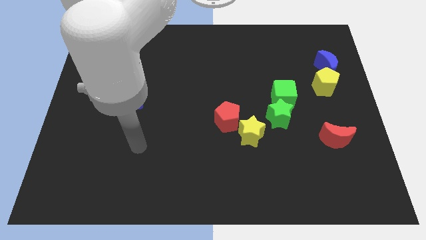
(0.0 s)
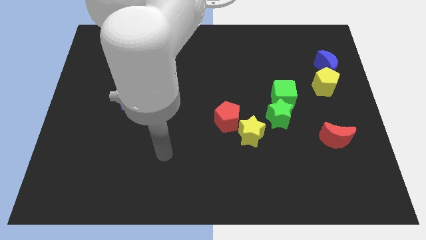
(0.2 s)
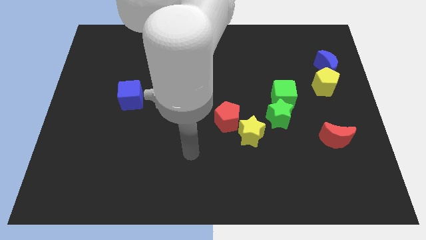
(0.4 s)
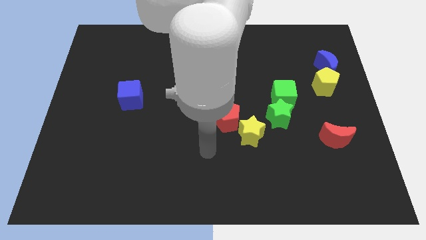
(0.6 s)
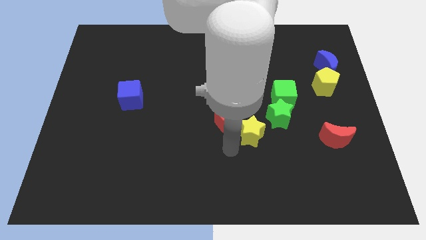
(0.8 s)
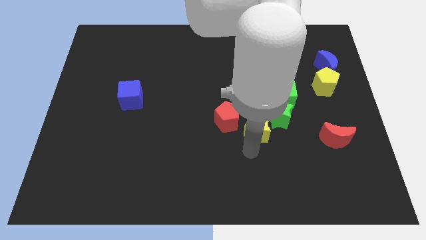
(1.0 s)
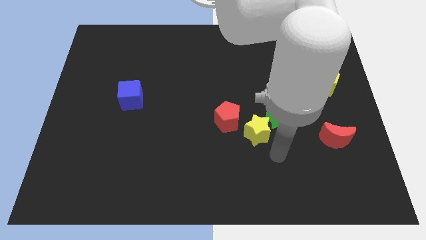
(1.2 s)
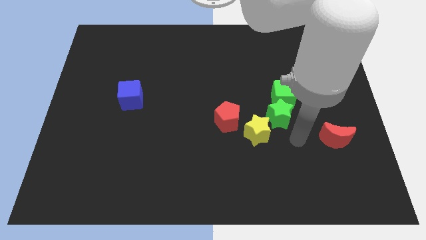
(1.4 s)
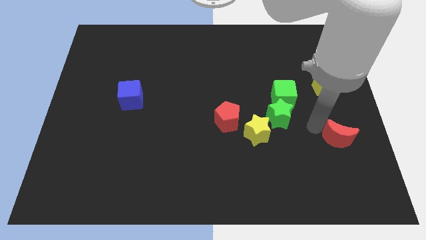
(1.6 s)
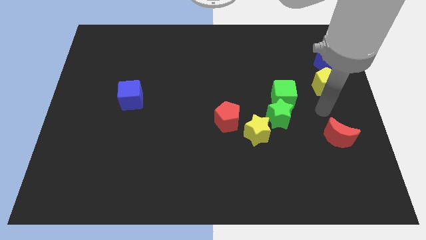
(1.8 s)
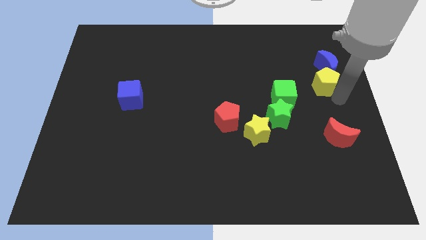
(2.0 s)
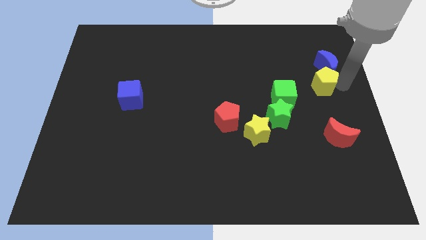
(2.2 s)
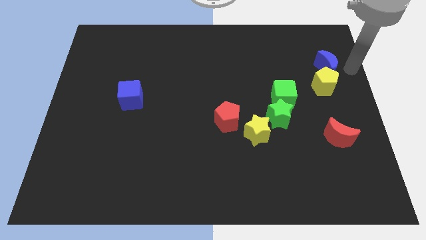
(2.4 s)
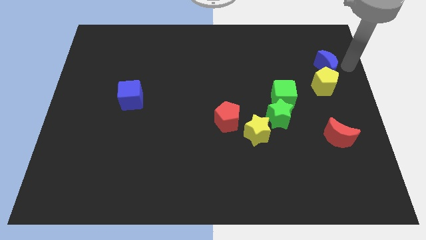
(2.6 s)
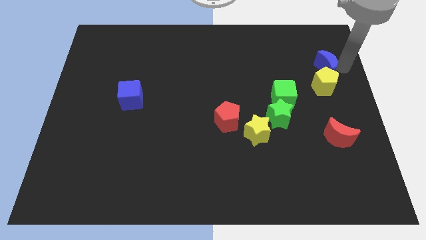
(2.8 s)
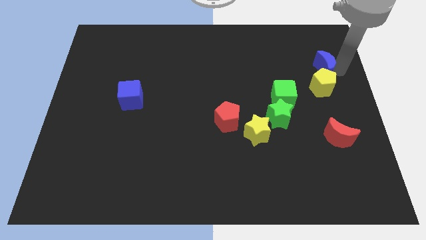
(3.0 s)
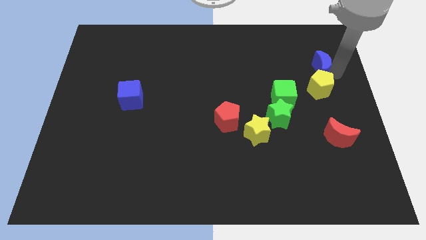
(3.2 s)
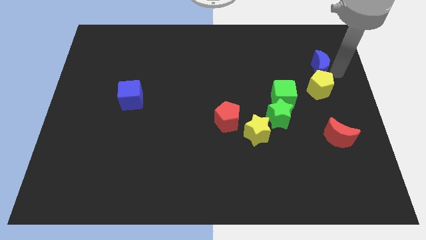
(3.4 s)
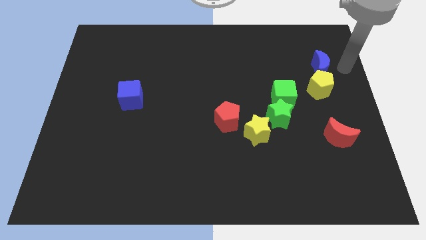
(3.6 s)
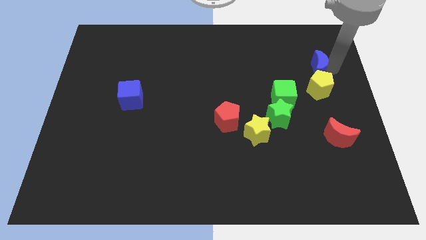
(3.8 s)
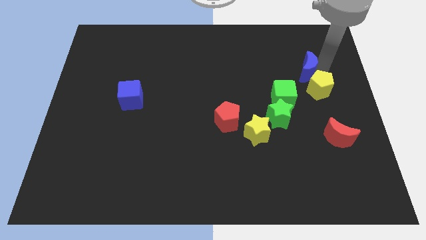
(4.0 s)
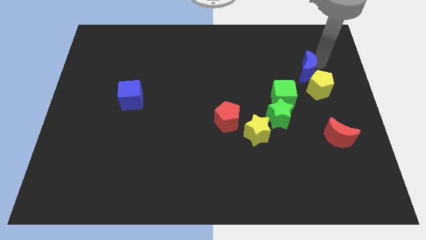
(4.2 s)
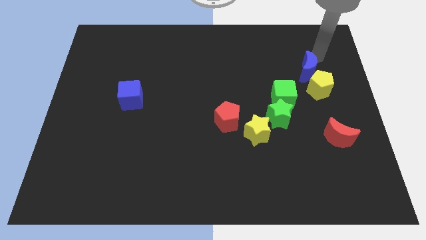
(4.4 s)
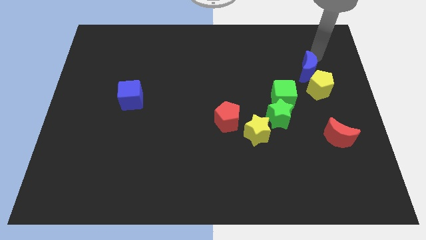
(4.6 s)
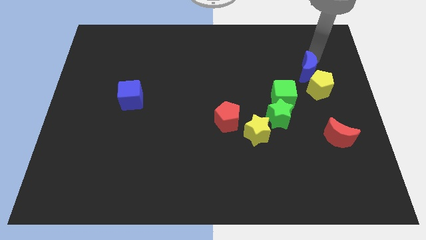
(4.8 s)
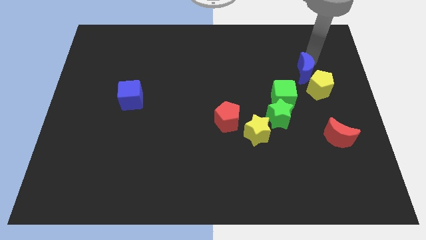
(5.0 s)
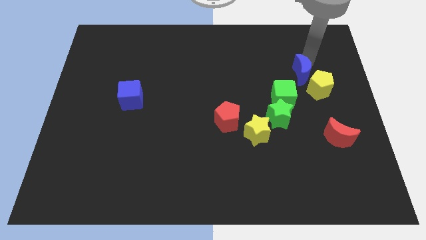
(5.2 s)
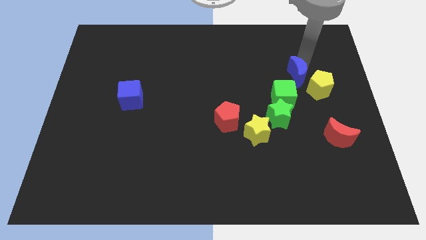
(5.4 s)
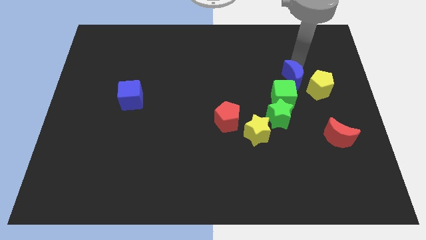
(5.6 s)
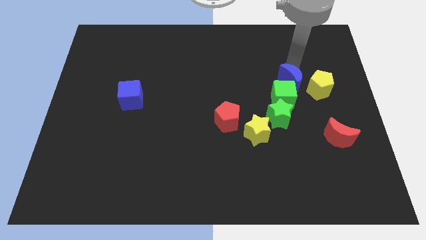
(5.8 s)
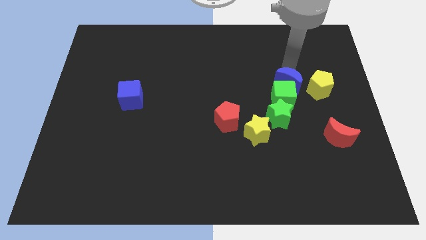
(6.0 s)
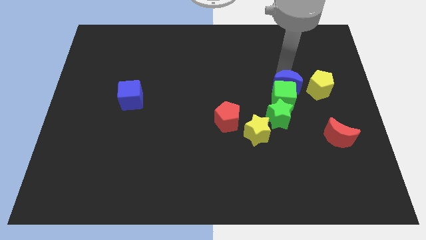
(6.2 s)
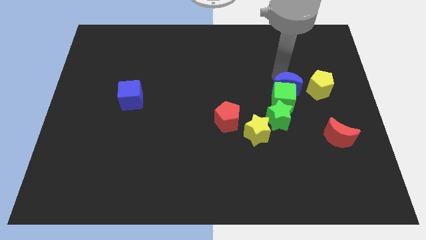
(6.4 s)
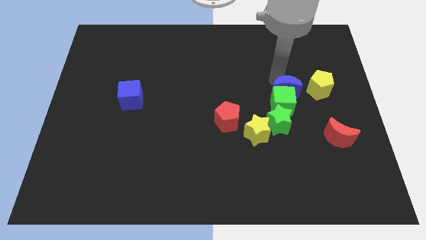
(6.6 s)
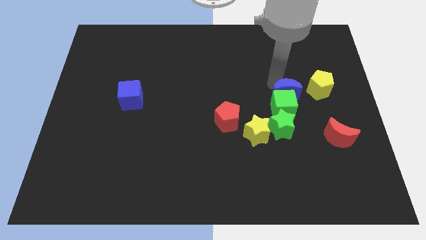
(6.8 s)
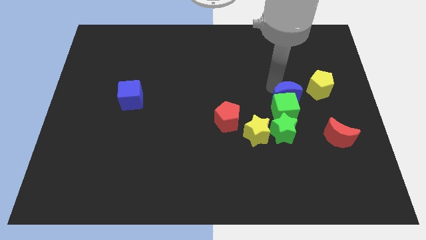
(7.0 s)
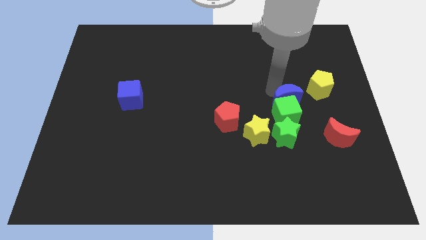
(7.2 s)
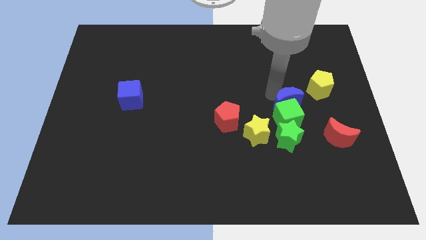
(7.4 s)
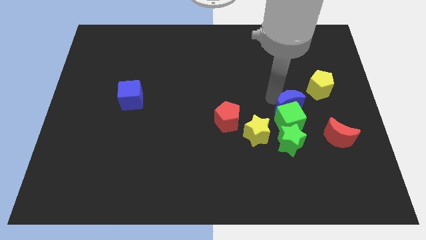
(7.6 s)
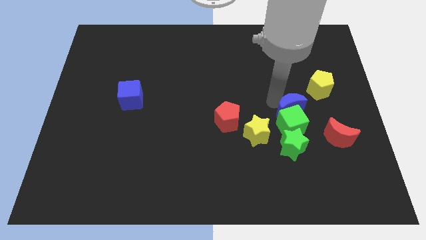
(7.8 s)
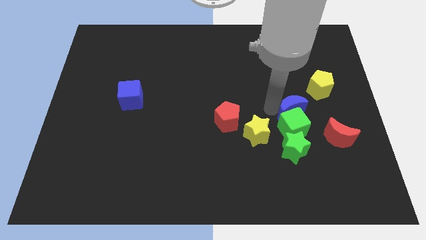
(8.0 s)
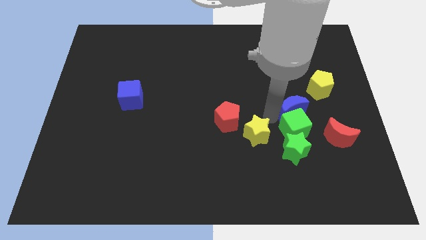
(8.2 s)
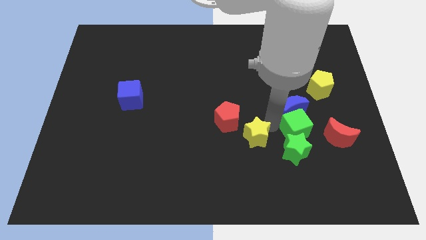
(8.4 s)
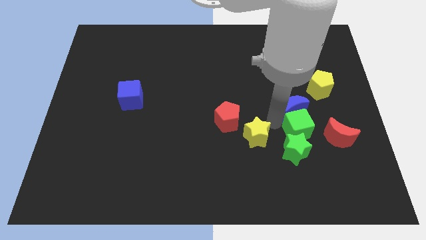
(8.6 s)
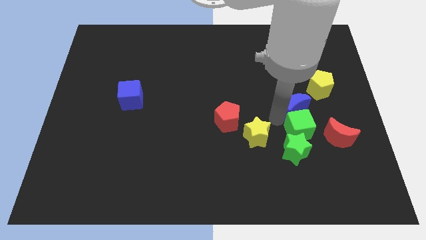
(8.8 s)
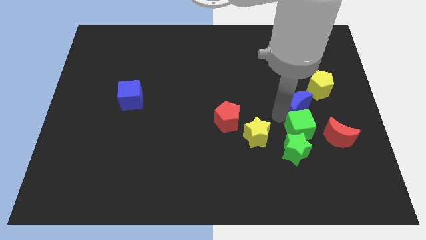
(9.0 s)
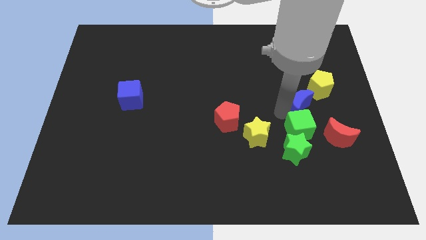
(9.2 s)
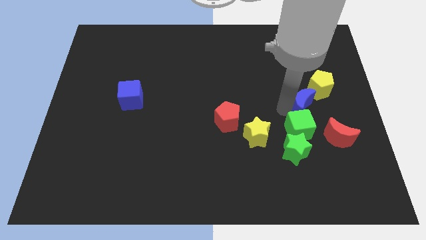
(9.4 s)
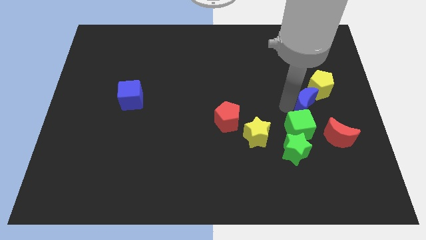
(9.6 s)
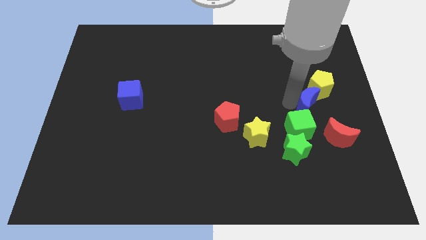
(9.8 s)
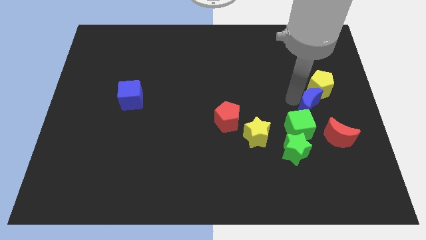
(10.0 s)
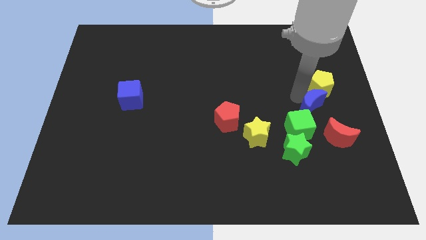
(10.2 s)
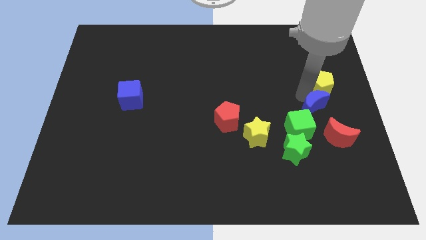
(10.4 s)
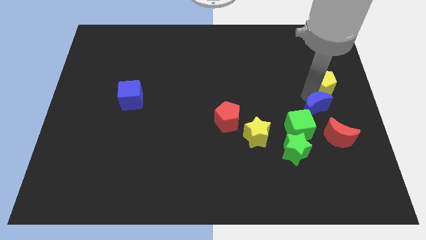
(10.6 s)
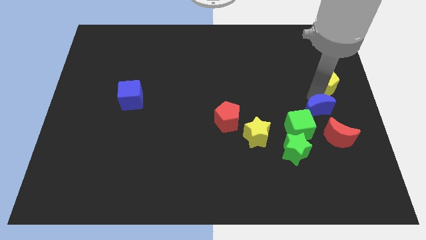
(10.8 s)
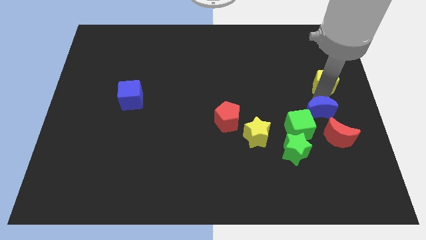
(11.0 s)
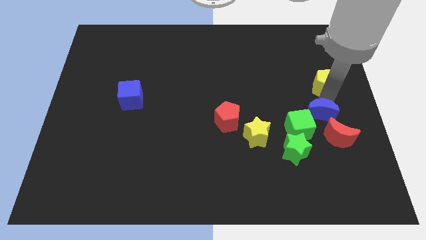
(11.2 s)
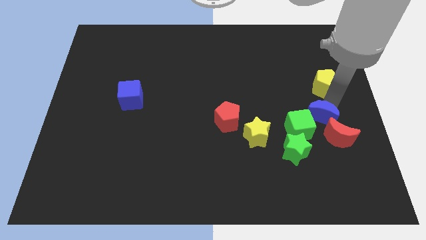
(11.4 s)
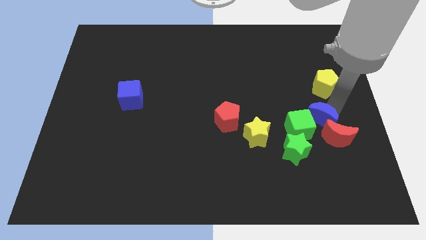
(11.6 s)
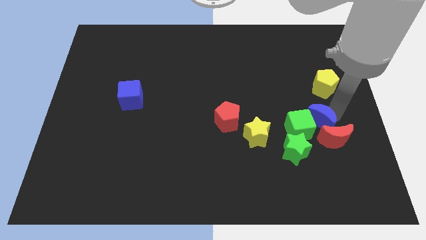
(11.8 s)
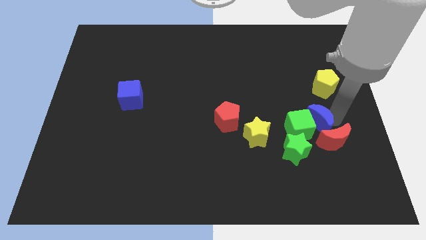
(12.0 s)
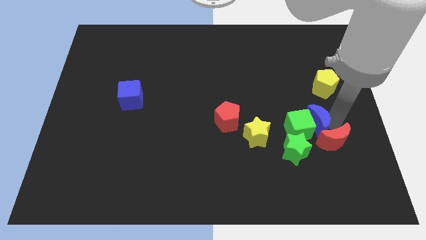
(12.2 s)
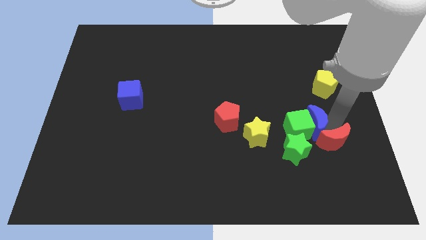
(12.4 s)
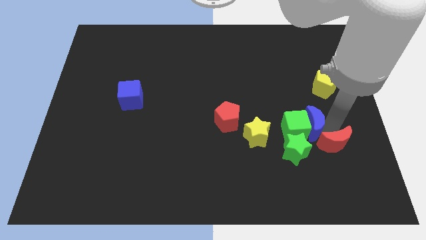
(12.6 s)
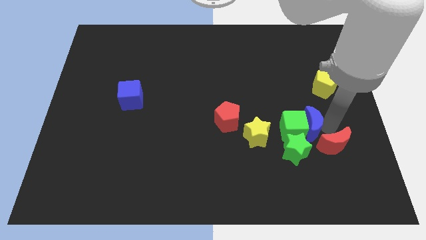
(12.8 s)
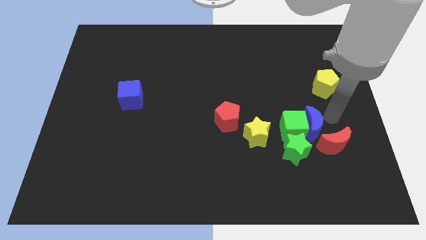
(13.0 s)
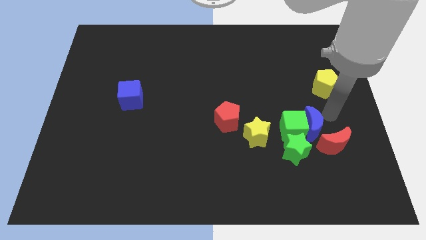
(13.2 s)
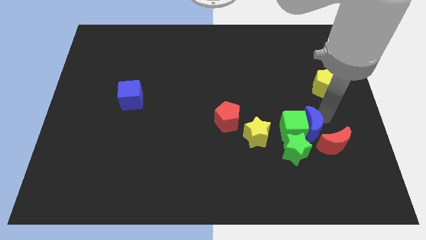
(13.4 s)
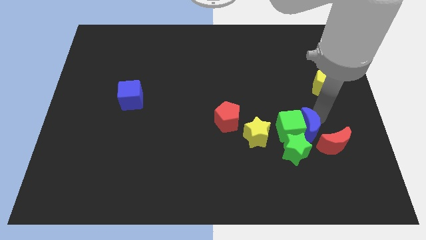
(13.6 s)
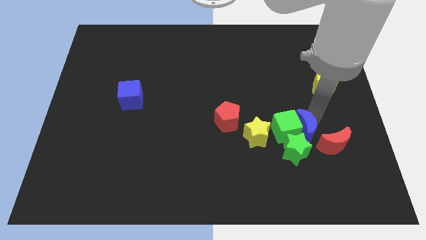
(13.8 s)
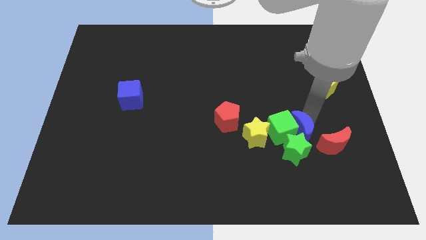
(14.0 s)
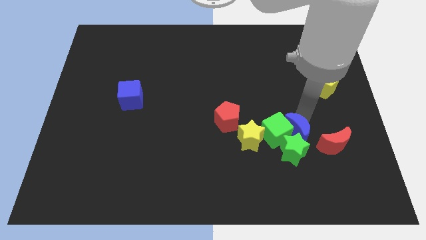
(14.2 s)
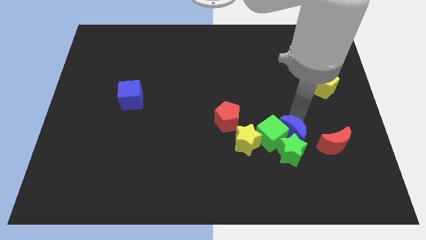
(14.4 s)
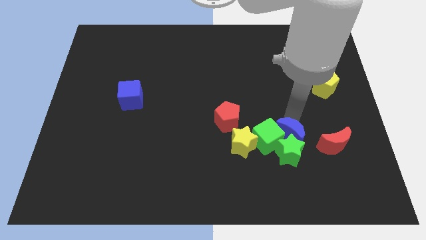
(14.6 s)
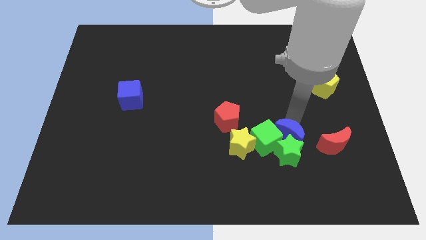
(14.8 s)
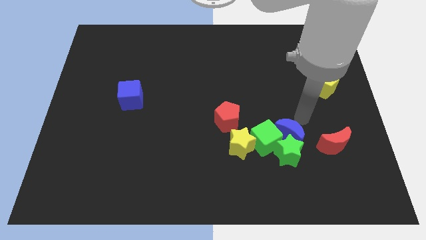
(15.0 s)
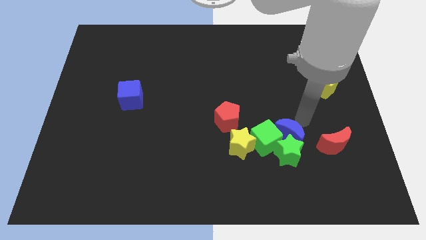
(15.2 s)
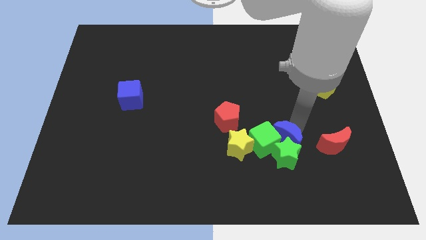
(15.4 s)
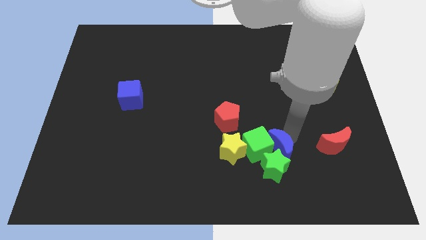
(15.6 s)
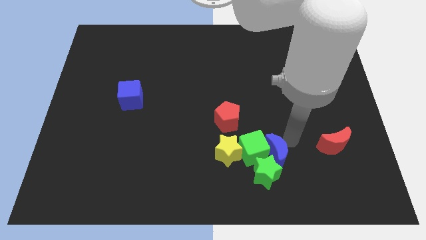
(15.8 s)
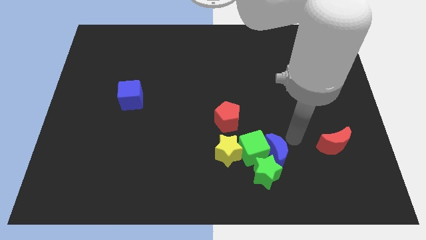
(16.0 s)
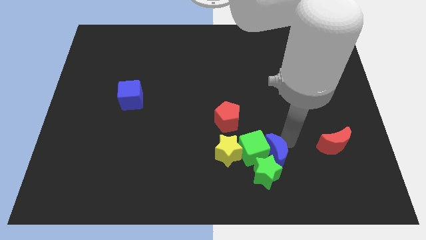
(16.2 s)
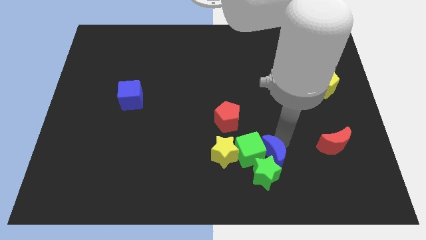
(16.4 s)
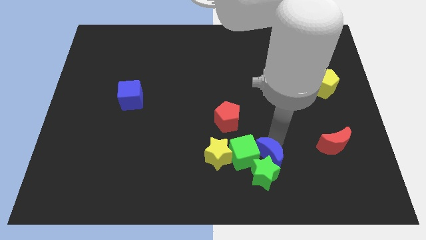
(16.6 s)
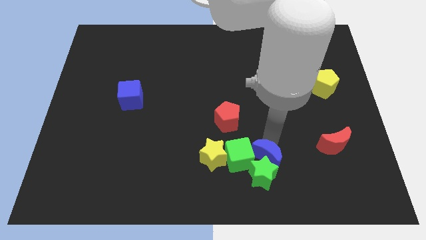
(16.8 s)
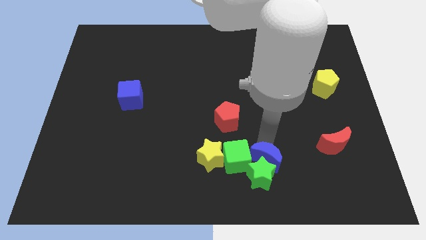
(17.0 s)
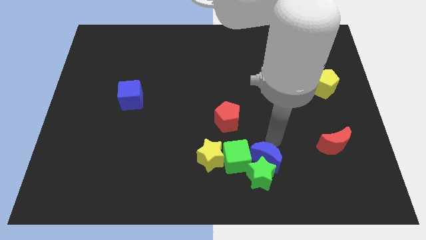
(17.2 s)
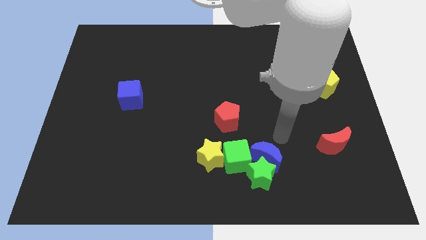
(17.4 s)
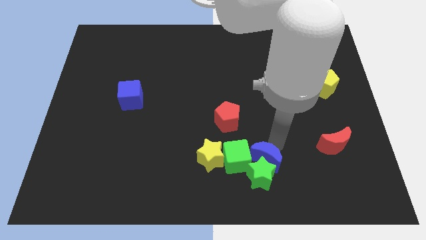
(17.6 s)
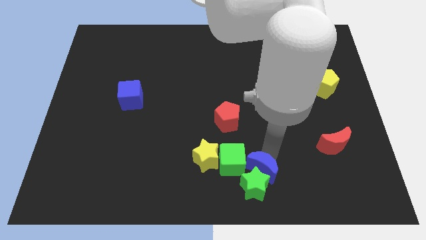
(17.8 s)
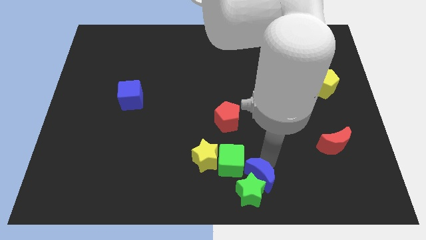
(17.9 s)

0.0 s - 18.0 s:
move the blue moon to the bottom side
